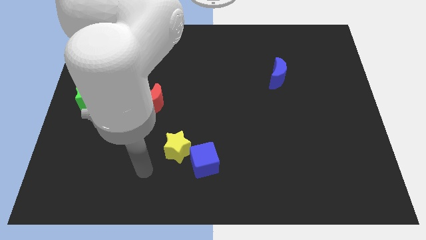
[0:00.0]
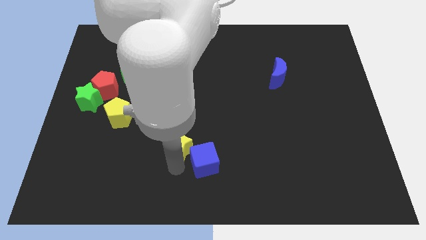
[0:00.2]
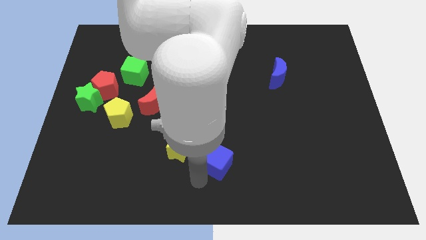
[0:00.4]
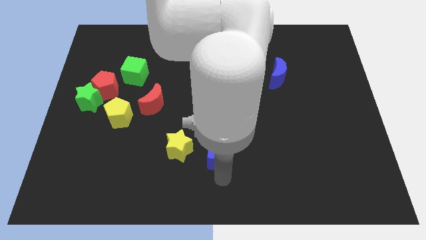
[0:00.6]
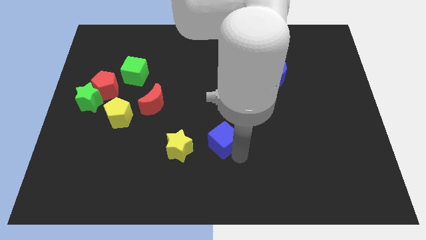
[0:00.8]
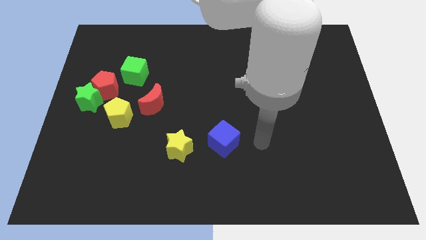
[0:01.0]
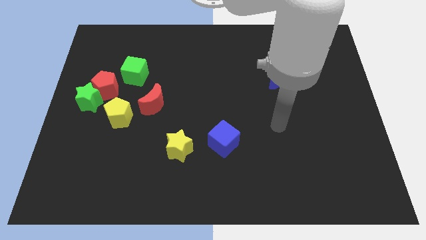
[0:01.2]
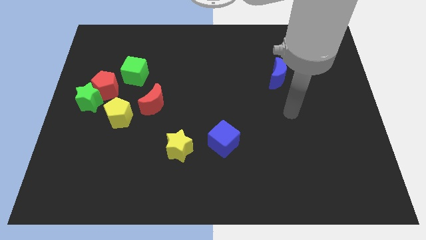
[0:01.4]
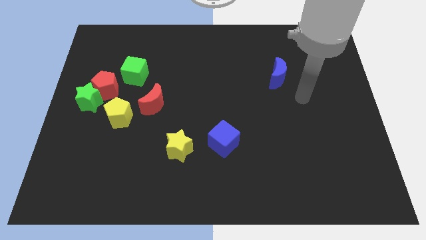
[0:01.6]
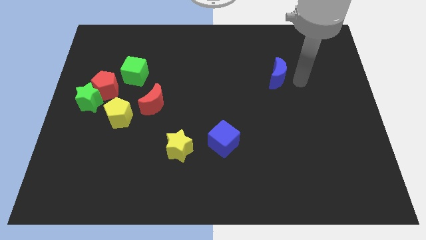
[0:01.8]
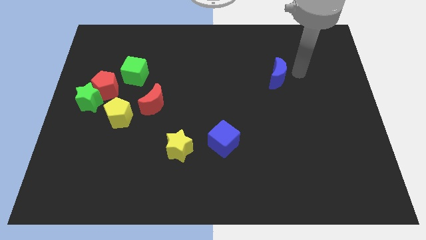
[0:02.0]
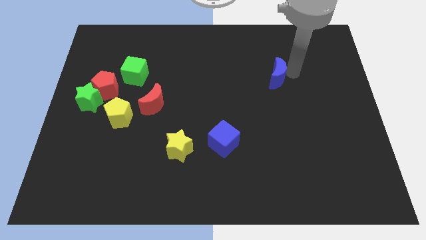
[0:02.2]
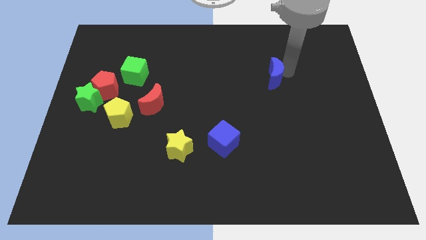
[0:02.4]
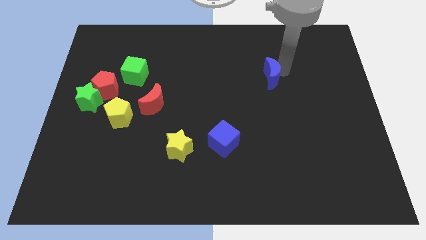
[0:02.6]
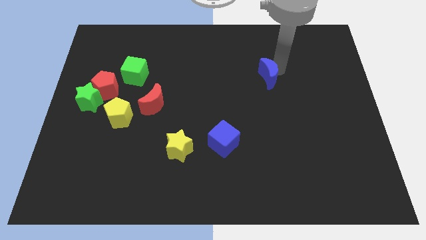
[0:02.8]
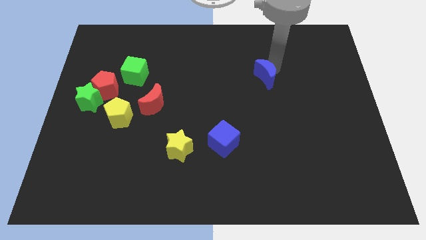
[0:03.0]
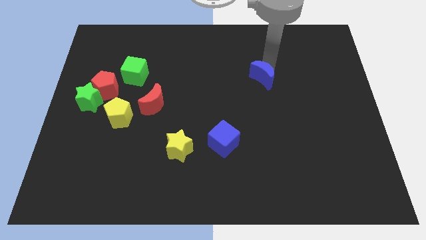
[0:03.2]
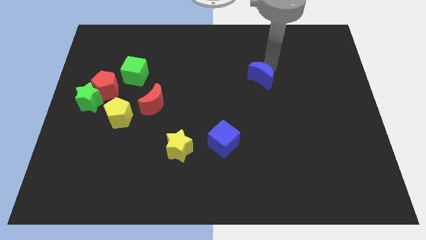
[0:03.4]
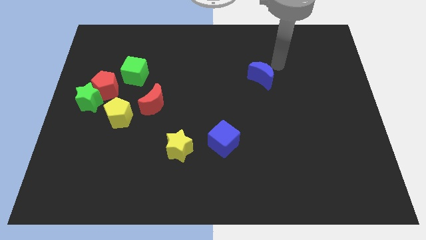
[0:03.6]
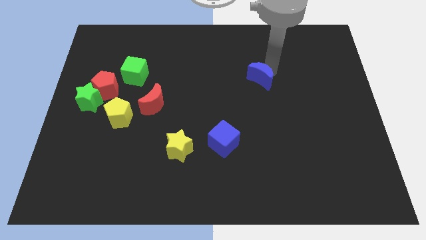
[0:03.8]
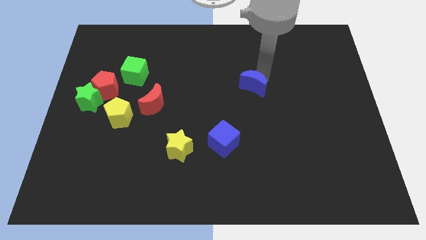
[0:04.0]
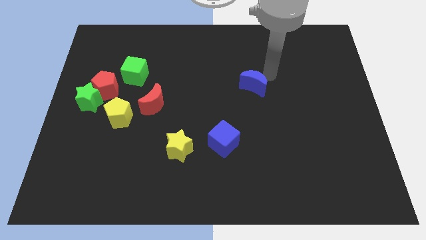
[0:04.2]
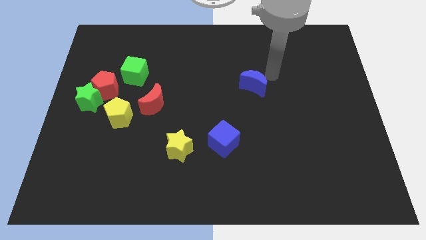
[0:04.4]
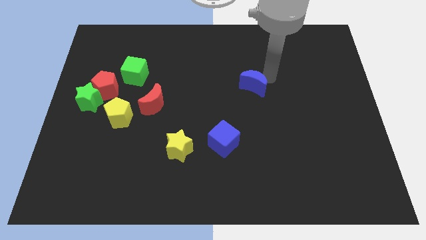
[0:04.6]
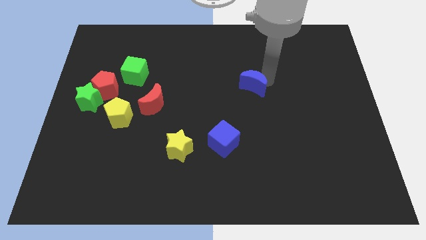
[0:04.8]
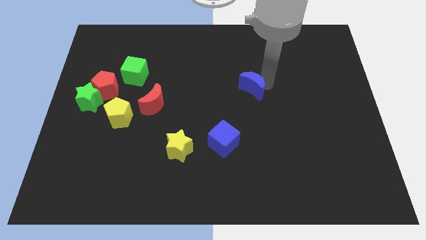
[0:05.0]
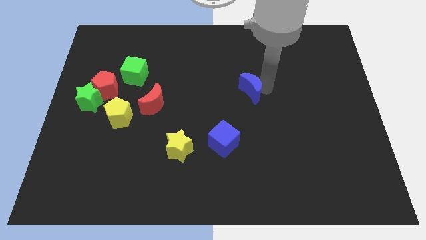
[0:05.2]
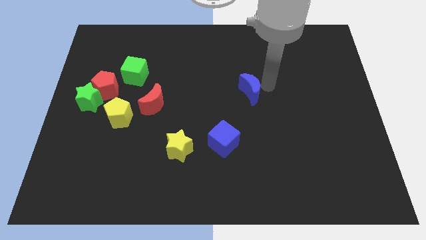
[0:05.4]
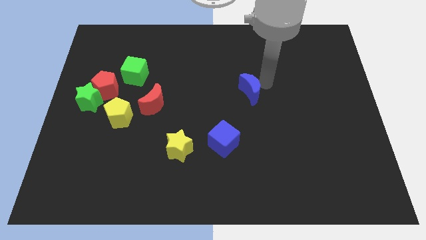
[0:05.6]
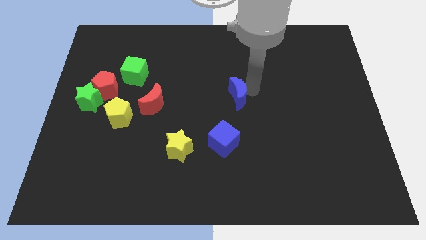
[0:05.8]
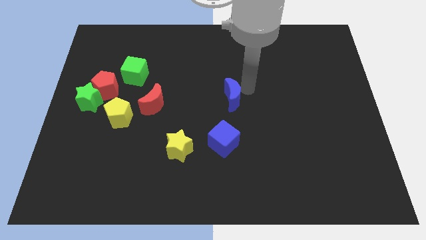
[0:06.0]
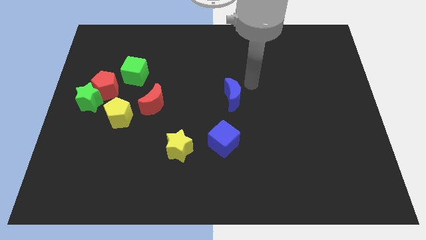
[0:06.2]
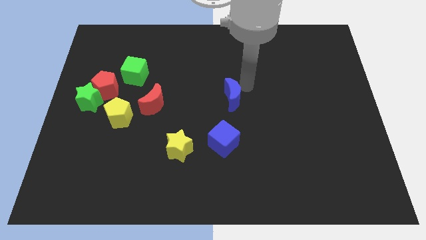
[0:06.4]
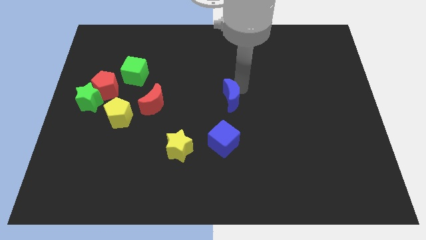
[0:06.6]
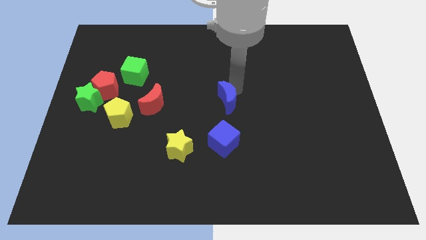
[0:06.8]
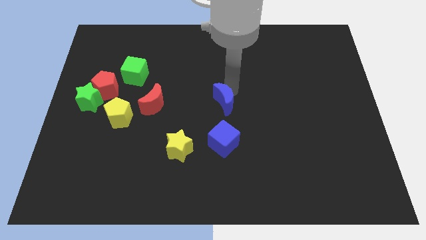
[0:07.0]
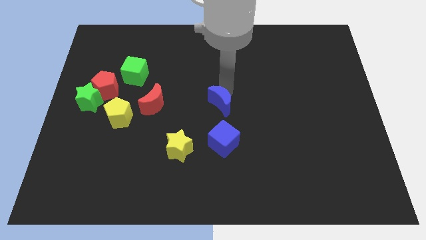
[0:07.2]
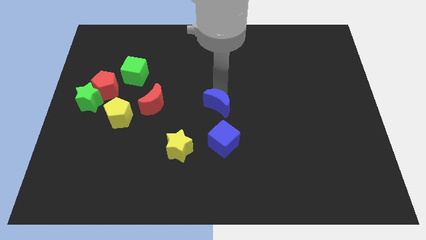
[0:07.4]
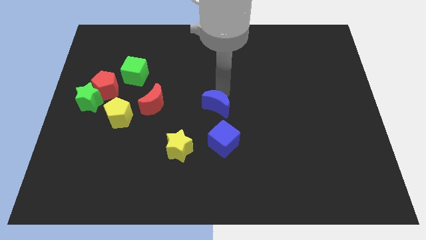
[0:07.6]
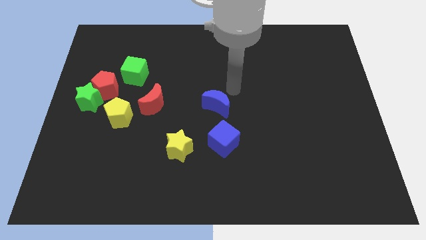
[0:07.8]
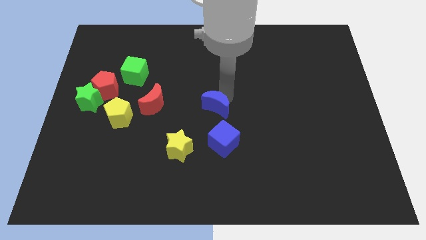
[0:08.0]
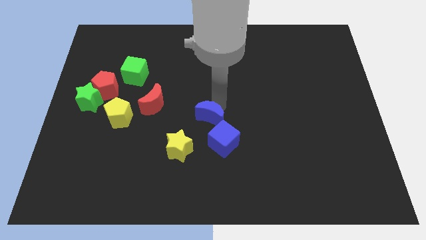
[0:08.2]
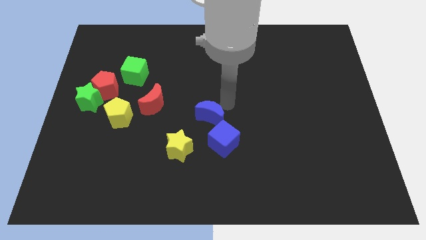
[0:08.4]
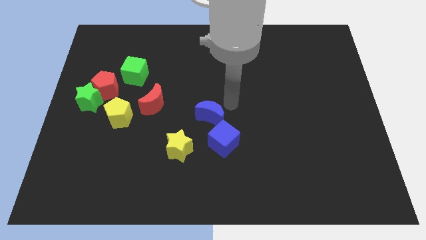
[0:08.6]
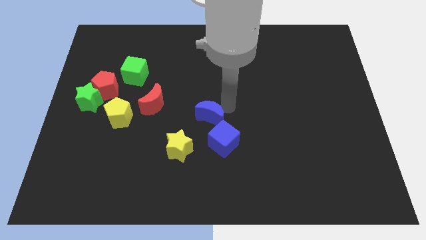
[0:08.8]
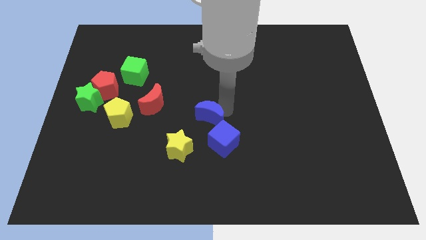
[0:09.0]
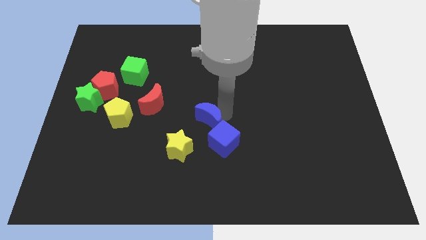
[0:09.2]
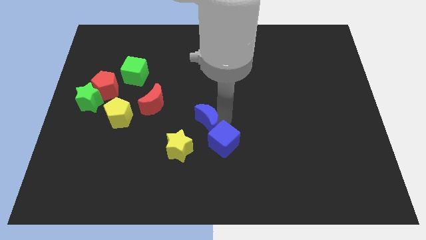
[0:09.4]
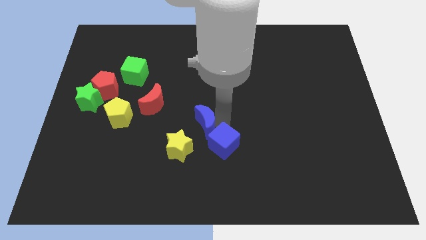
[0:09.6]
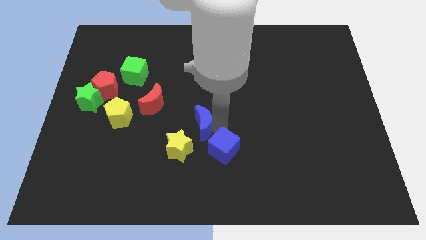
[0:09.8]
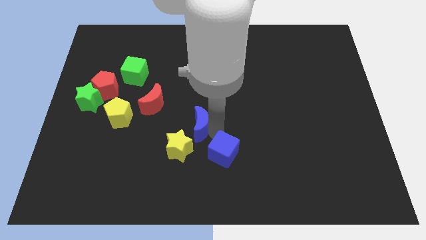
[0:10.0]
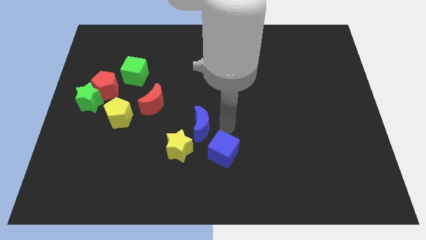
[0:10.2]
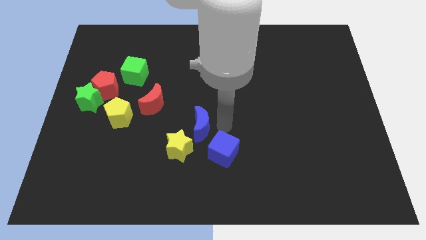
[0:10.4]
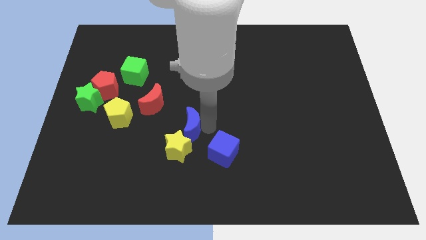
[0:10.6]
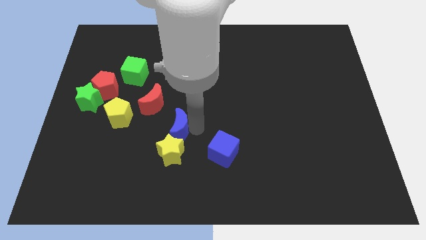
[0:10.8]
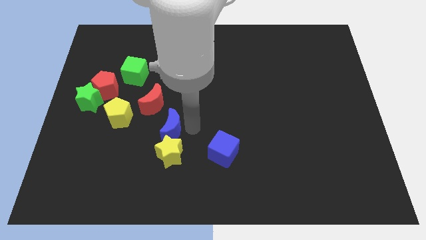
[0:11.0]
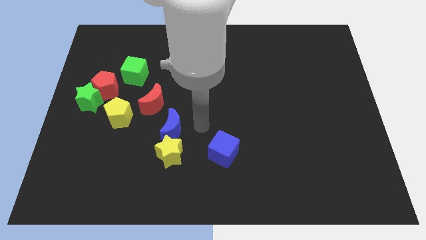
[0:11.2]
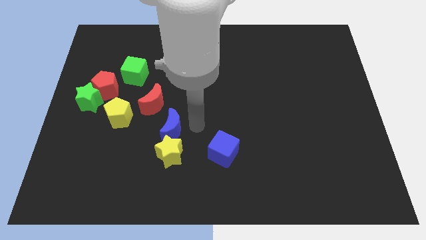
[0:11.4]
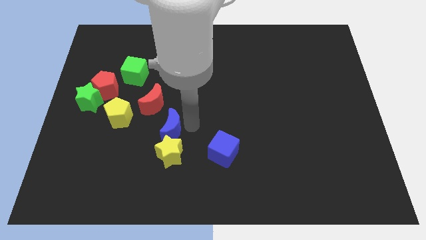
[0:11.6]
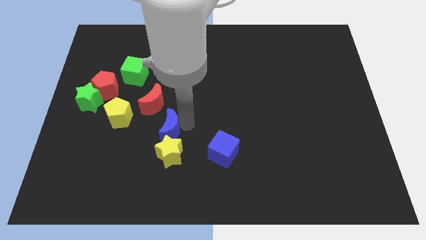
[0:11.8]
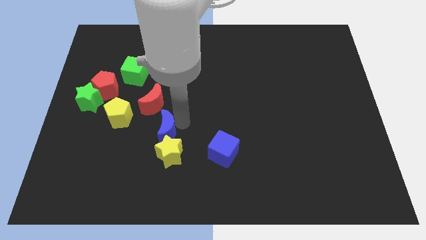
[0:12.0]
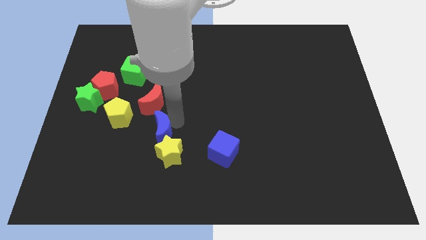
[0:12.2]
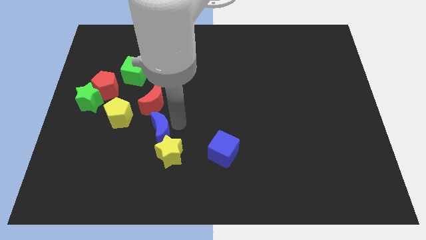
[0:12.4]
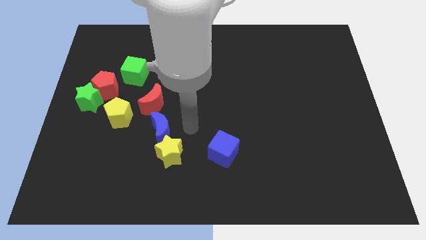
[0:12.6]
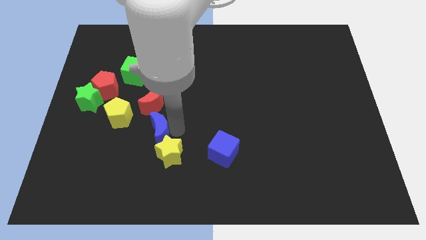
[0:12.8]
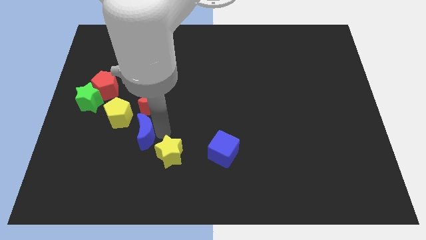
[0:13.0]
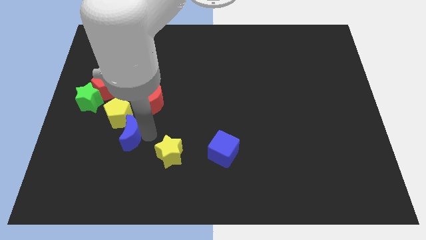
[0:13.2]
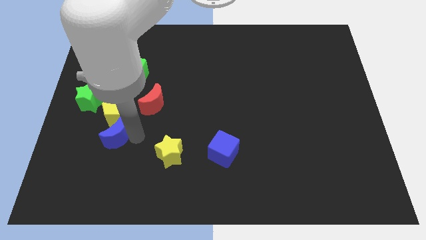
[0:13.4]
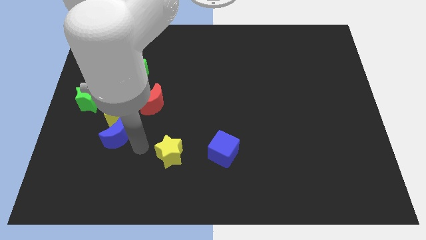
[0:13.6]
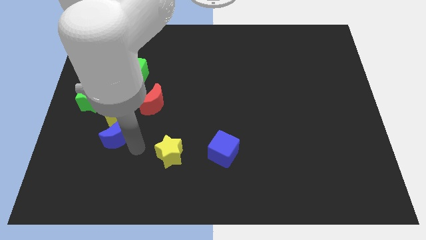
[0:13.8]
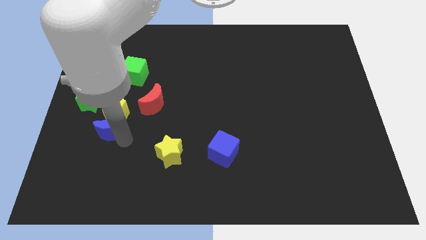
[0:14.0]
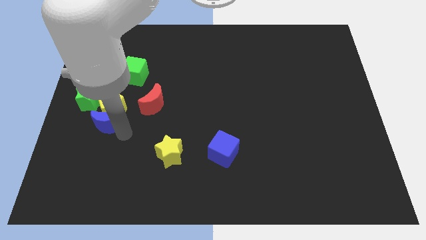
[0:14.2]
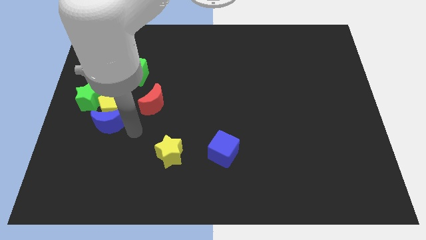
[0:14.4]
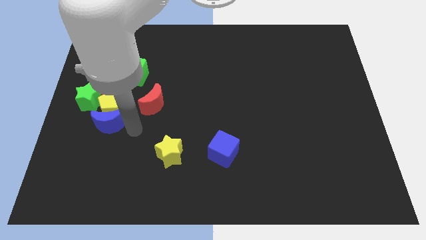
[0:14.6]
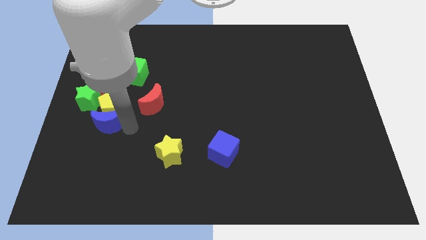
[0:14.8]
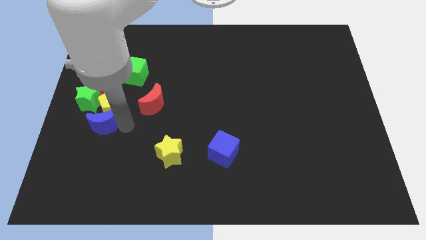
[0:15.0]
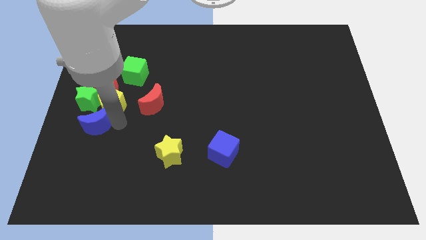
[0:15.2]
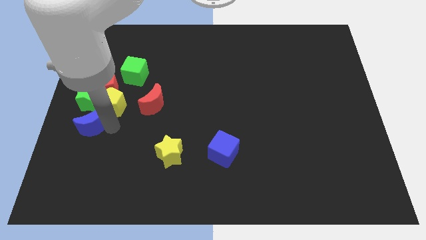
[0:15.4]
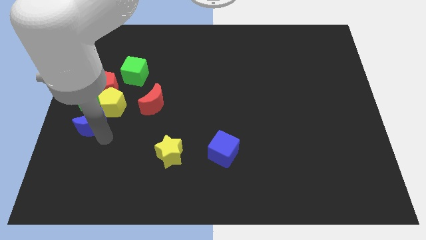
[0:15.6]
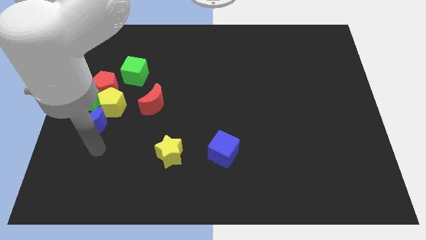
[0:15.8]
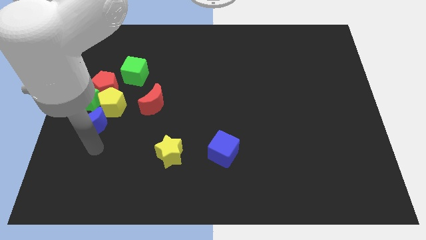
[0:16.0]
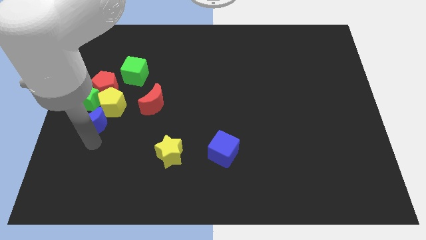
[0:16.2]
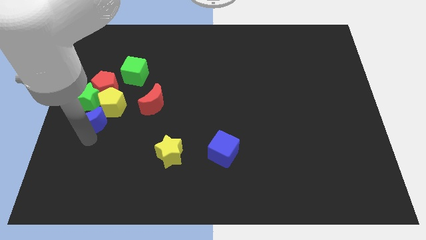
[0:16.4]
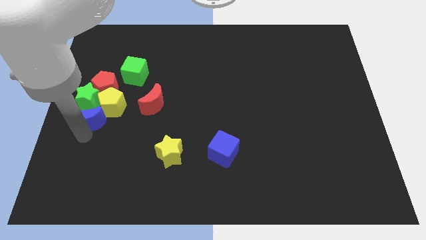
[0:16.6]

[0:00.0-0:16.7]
slide the blue moon close to the green star
